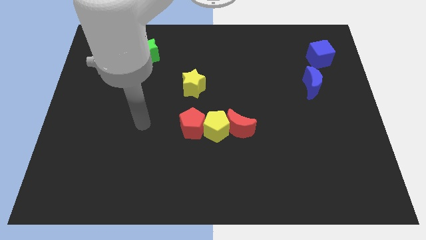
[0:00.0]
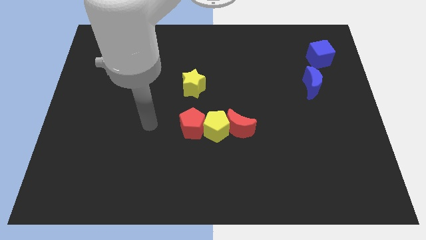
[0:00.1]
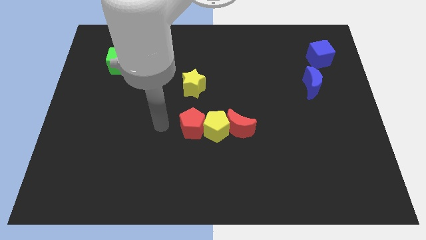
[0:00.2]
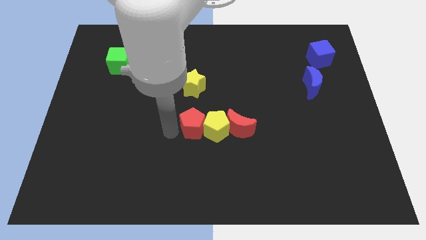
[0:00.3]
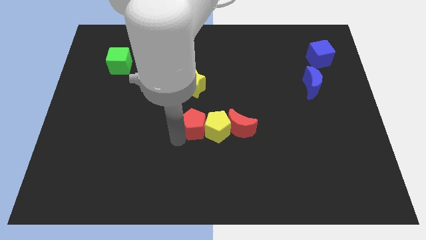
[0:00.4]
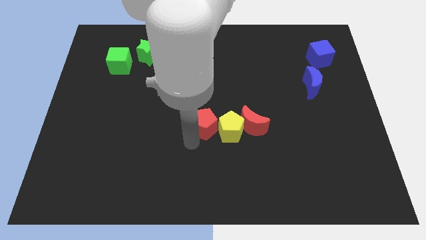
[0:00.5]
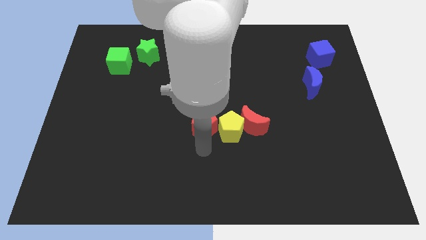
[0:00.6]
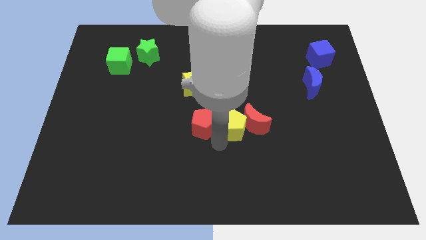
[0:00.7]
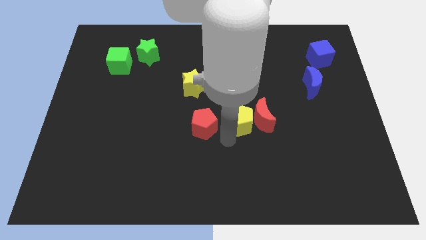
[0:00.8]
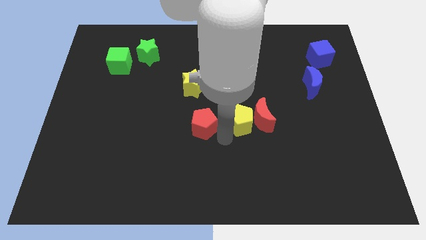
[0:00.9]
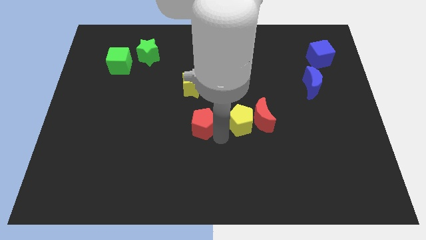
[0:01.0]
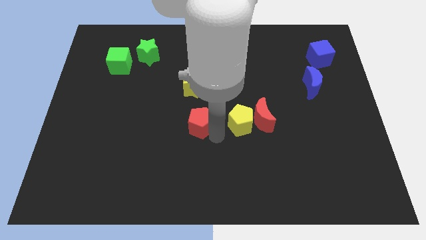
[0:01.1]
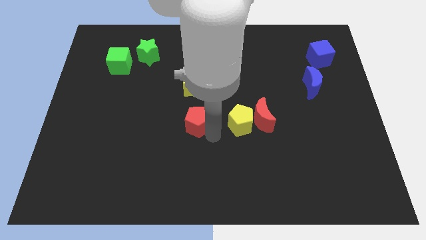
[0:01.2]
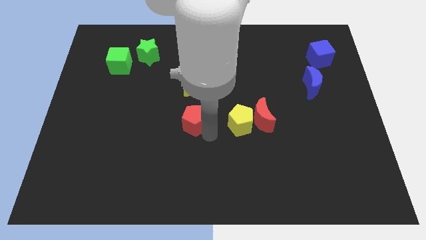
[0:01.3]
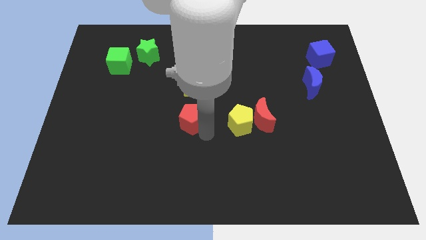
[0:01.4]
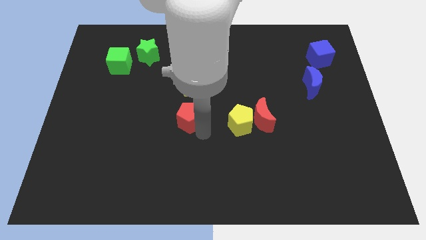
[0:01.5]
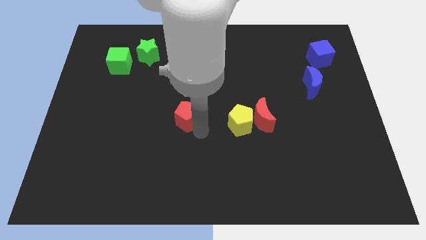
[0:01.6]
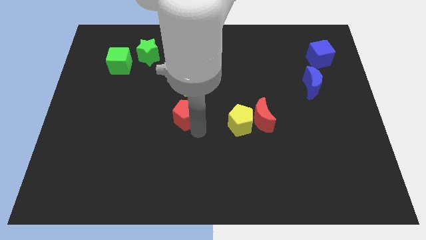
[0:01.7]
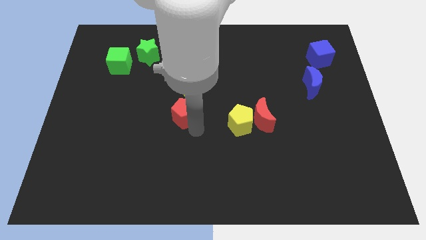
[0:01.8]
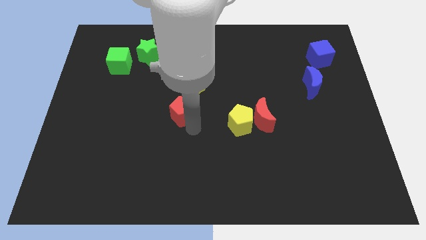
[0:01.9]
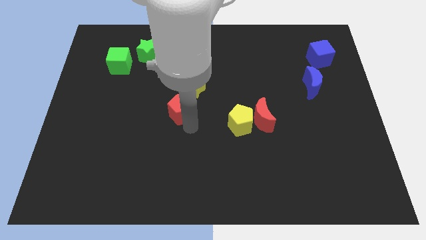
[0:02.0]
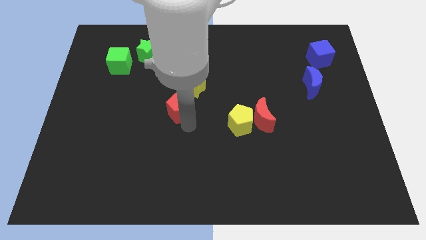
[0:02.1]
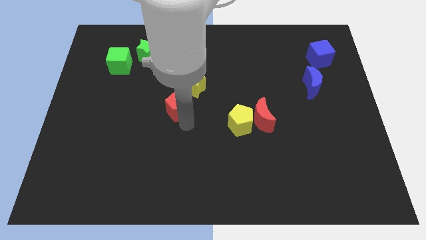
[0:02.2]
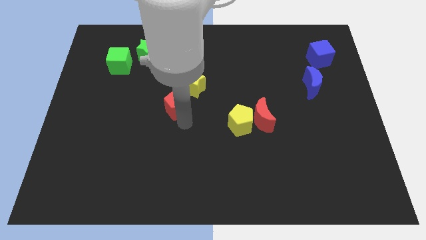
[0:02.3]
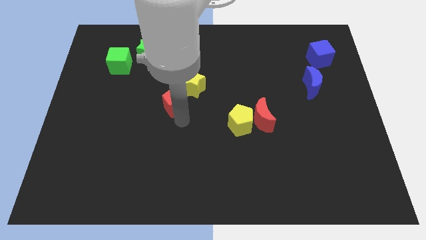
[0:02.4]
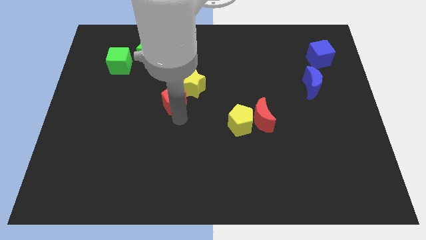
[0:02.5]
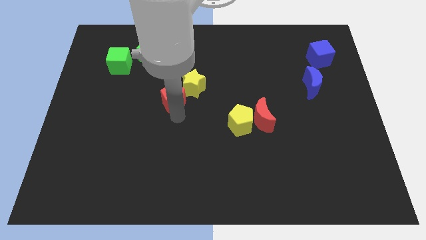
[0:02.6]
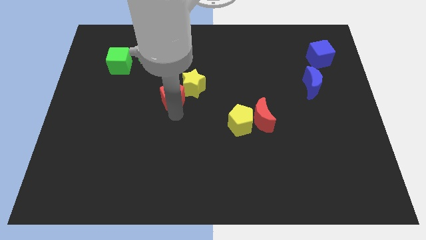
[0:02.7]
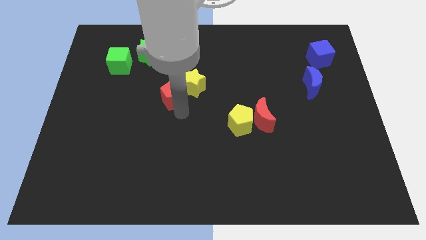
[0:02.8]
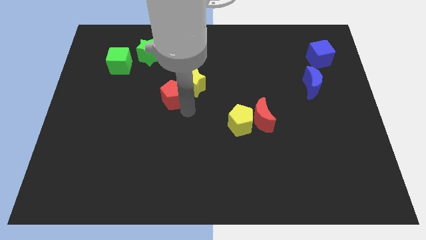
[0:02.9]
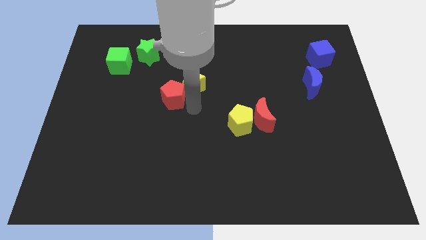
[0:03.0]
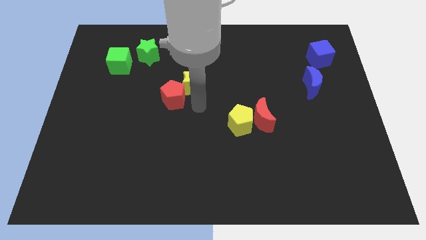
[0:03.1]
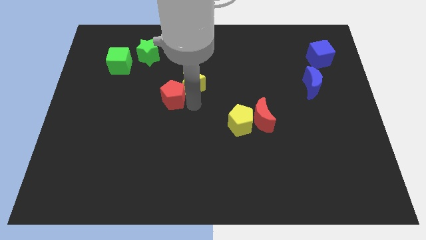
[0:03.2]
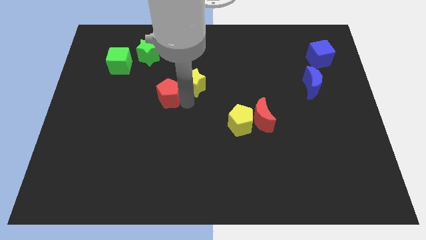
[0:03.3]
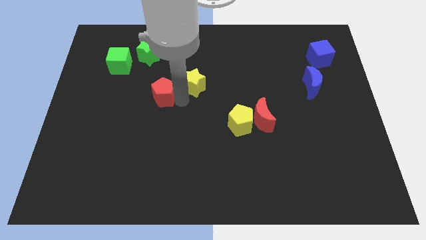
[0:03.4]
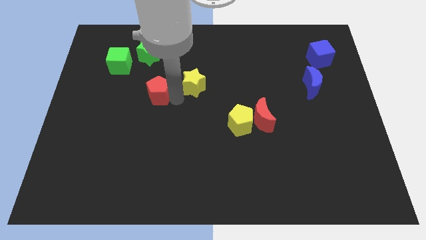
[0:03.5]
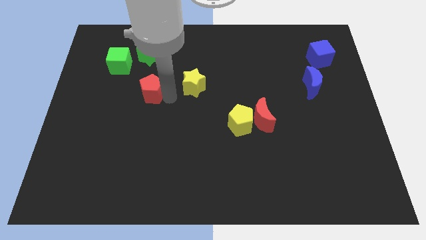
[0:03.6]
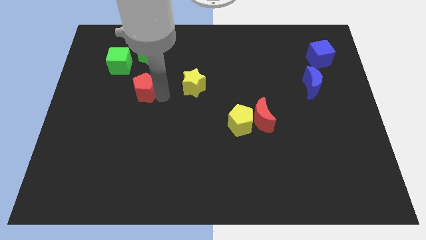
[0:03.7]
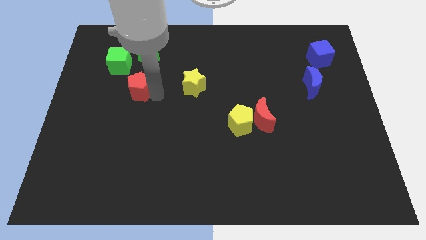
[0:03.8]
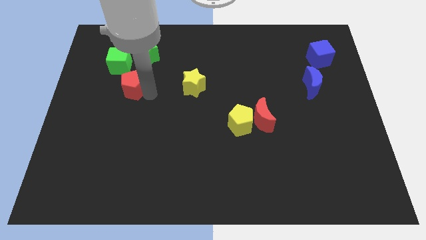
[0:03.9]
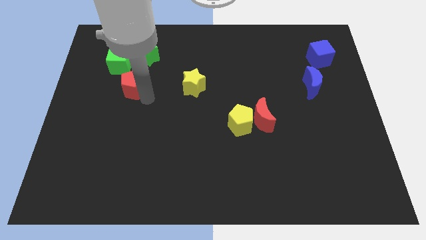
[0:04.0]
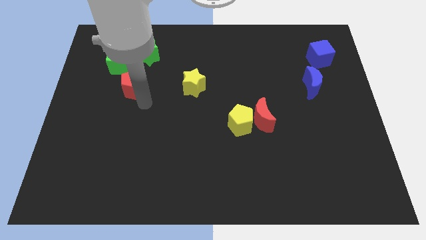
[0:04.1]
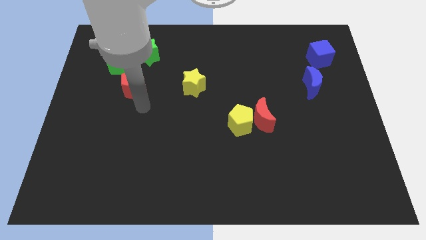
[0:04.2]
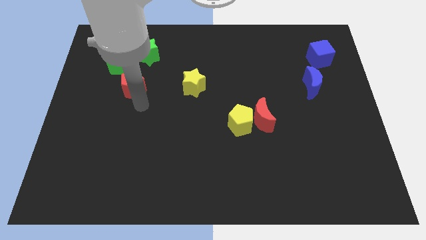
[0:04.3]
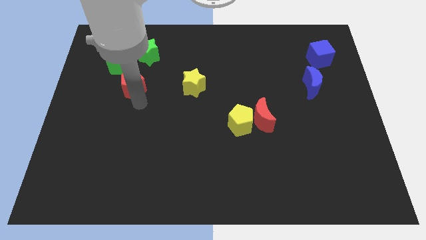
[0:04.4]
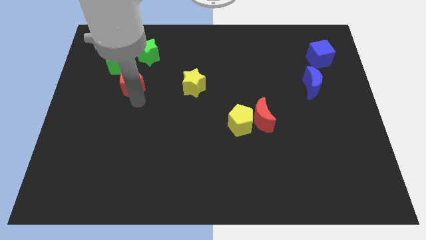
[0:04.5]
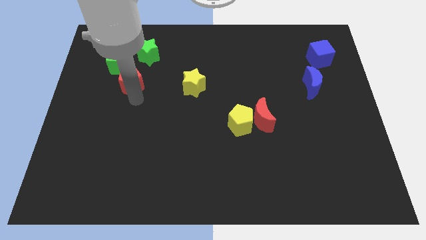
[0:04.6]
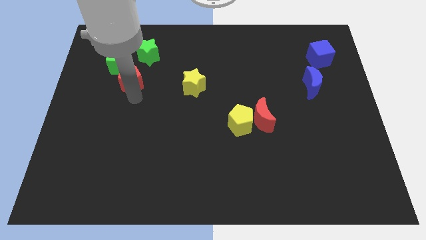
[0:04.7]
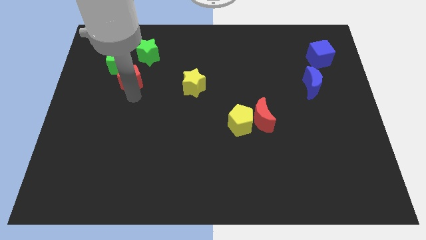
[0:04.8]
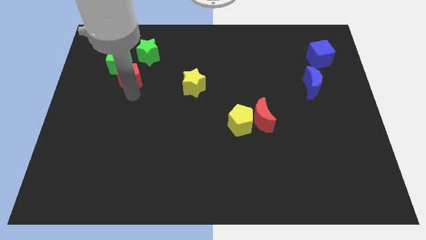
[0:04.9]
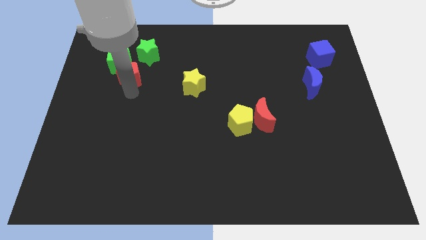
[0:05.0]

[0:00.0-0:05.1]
move the red pentagon close to the green cube

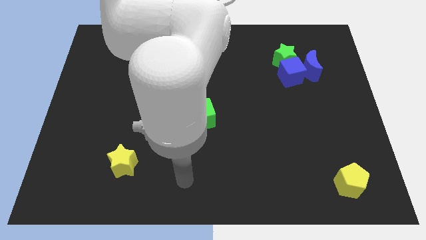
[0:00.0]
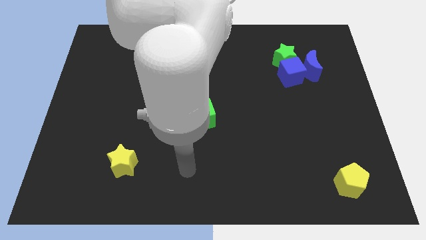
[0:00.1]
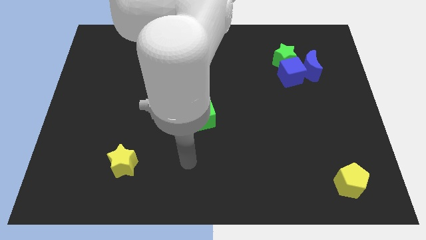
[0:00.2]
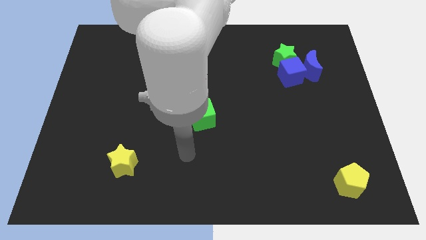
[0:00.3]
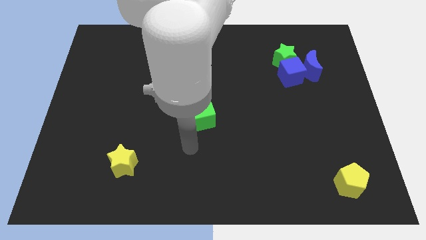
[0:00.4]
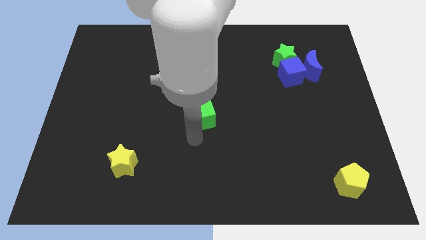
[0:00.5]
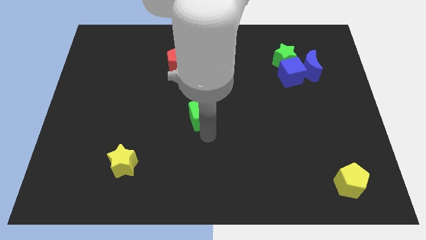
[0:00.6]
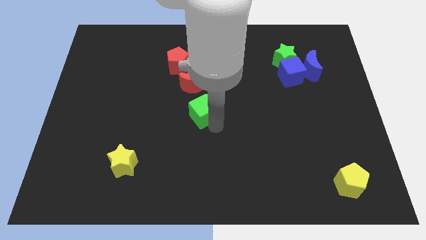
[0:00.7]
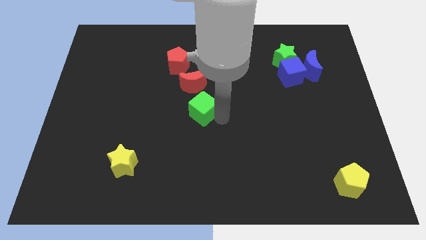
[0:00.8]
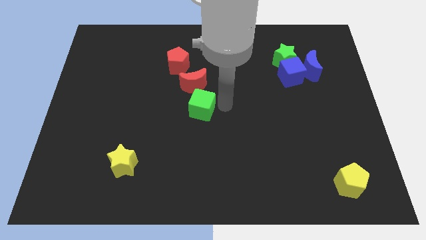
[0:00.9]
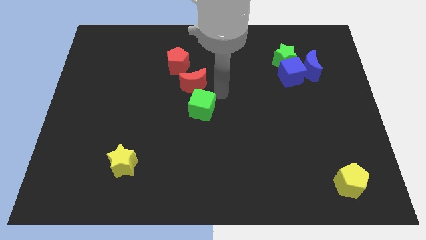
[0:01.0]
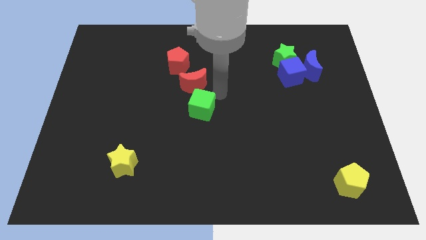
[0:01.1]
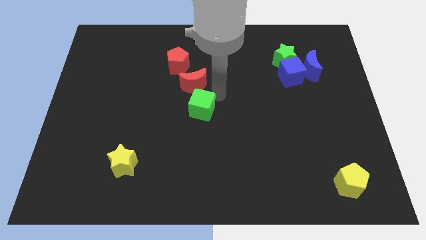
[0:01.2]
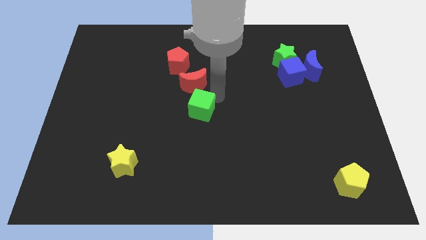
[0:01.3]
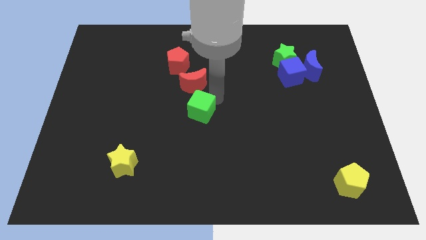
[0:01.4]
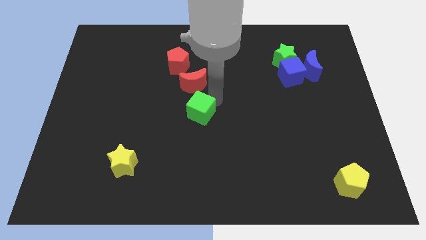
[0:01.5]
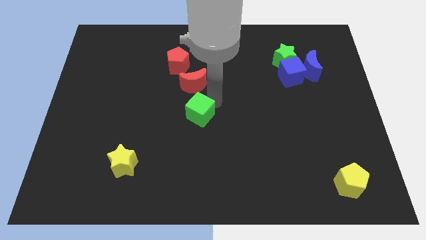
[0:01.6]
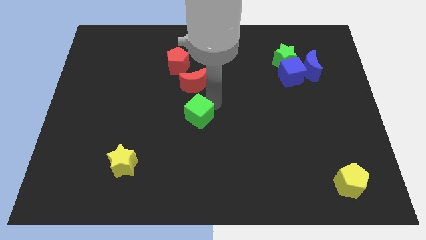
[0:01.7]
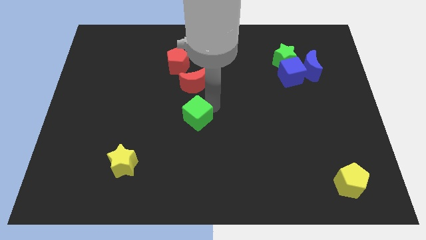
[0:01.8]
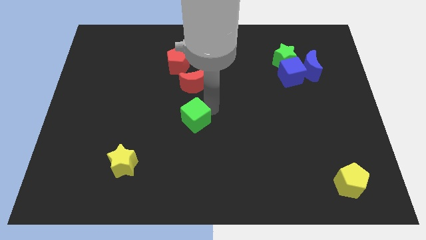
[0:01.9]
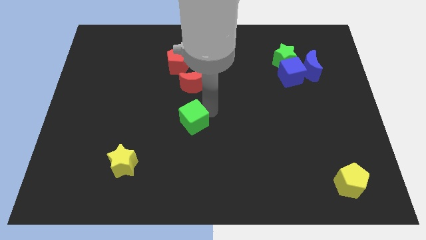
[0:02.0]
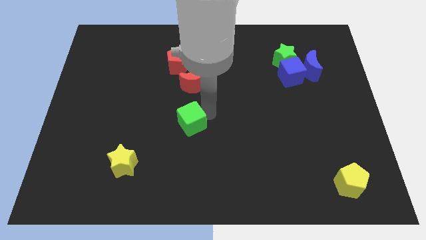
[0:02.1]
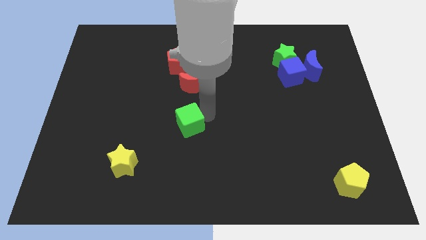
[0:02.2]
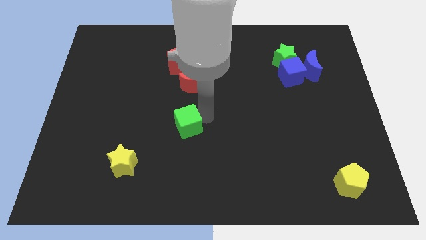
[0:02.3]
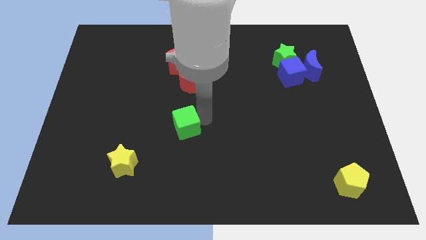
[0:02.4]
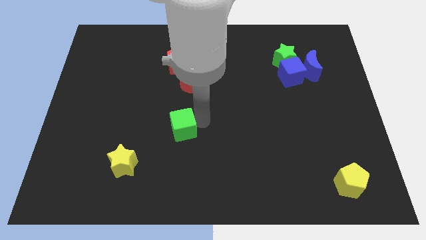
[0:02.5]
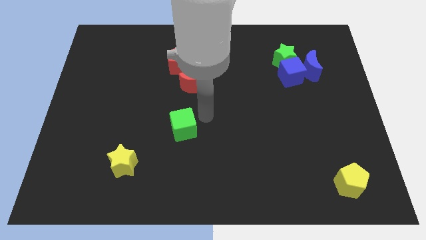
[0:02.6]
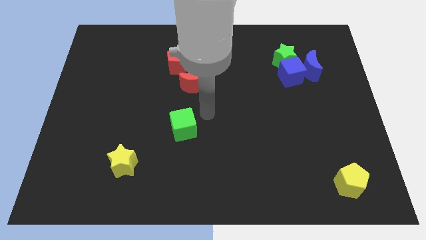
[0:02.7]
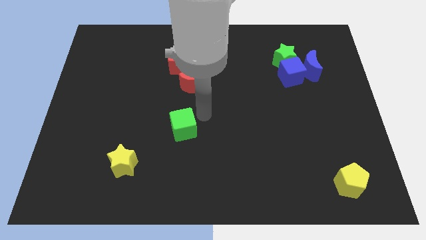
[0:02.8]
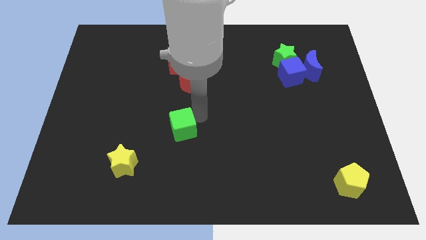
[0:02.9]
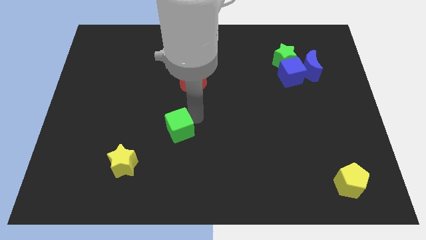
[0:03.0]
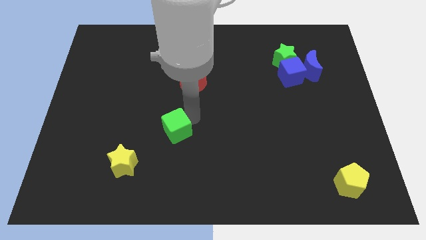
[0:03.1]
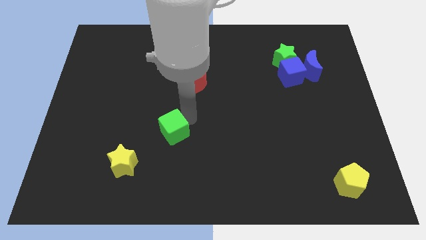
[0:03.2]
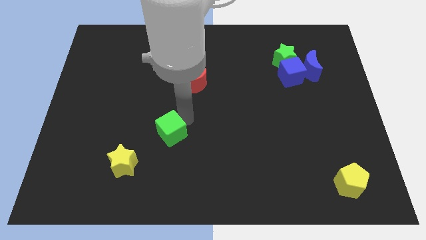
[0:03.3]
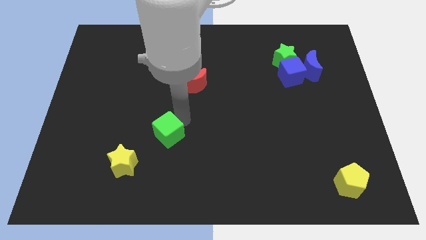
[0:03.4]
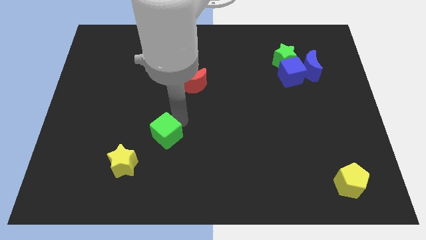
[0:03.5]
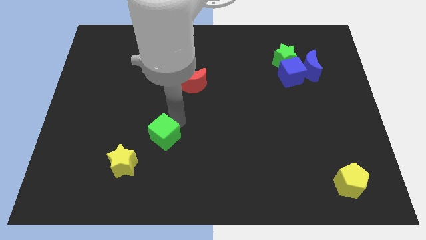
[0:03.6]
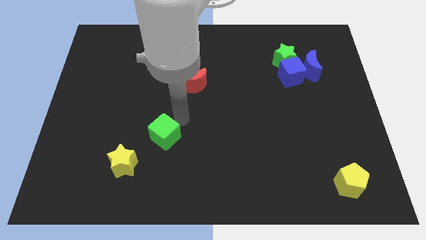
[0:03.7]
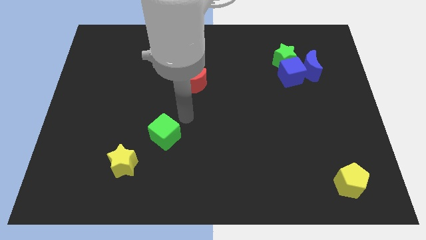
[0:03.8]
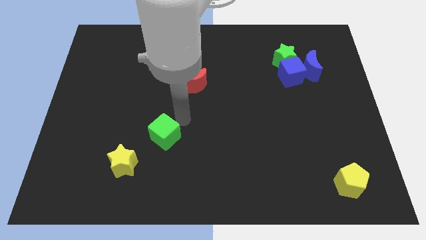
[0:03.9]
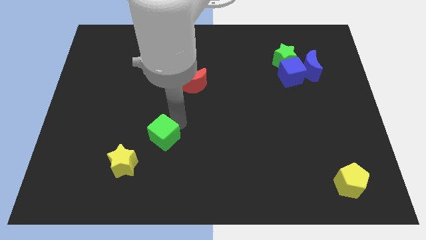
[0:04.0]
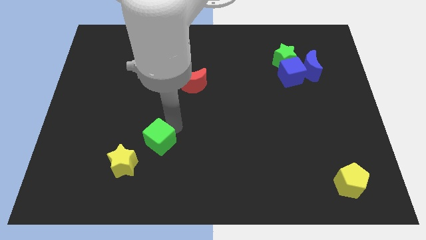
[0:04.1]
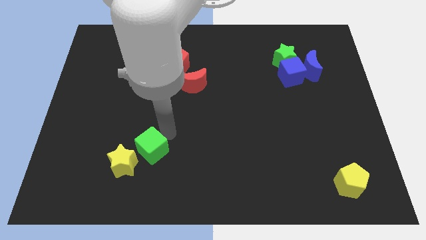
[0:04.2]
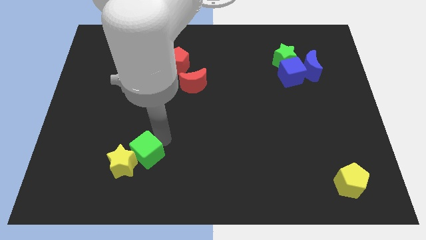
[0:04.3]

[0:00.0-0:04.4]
slide the green cube towards the yellow star
